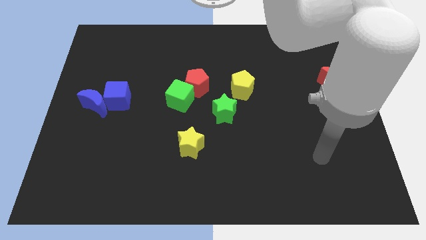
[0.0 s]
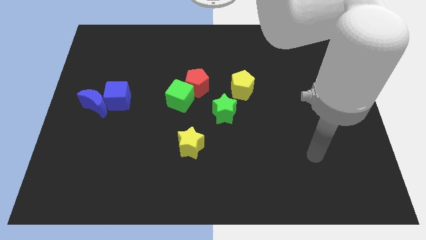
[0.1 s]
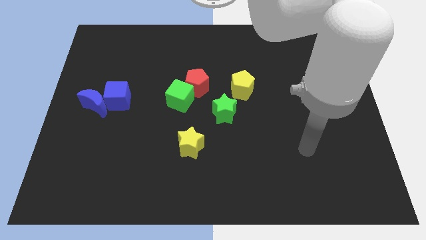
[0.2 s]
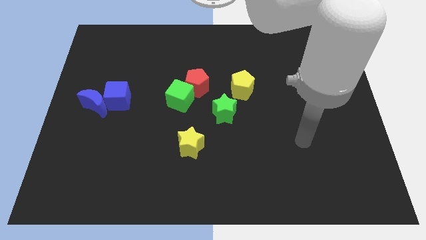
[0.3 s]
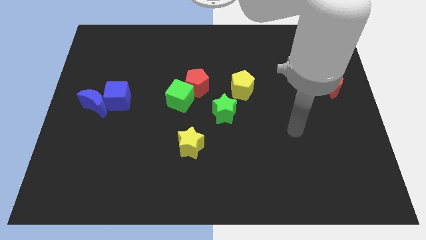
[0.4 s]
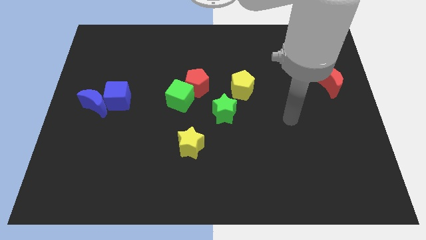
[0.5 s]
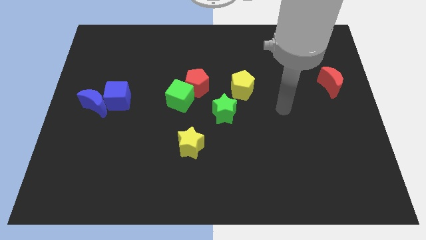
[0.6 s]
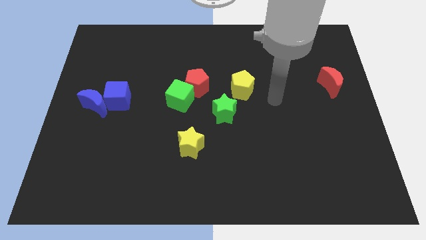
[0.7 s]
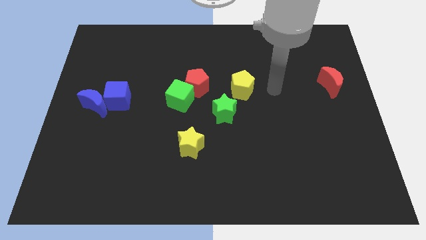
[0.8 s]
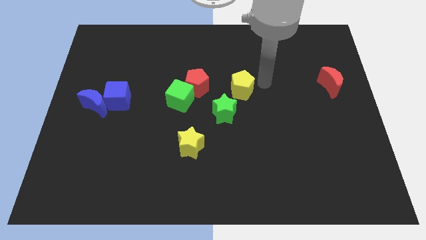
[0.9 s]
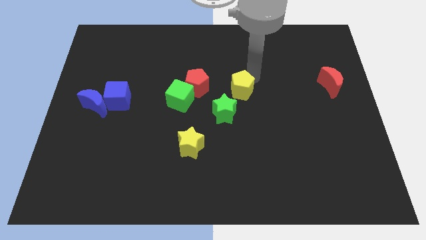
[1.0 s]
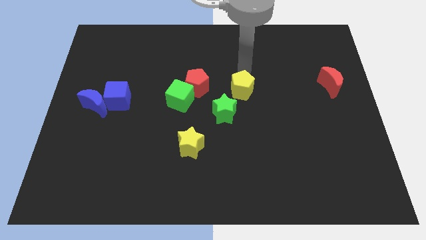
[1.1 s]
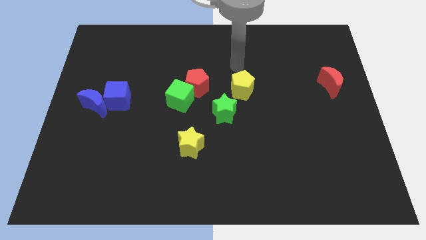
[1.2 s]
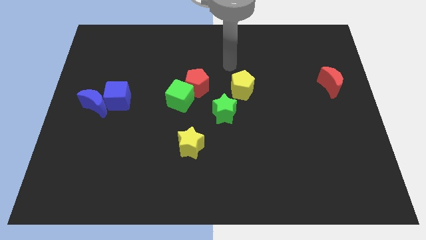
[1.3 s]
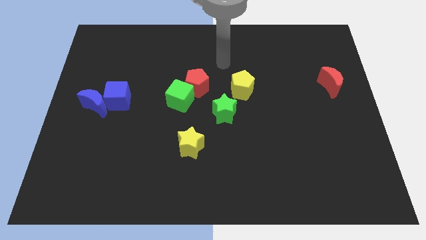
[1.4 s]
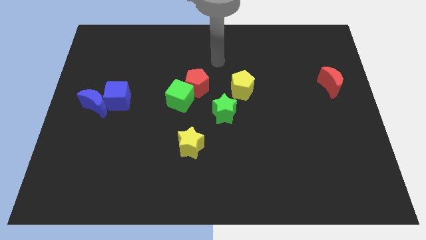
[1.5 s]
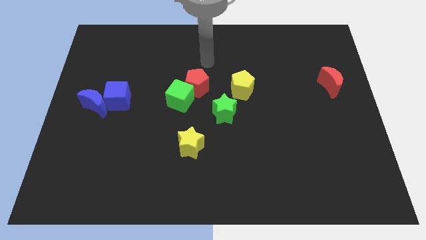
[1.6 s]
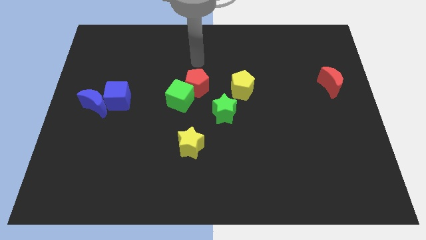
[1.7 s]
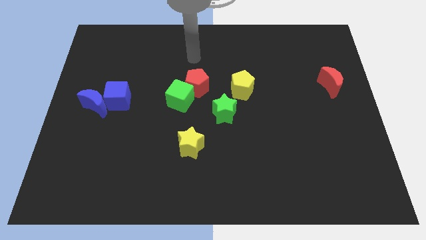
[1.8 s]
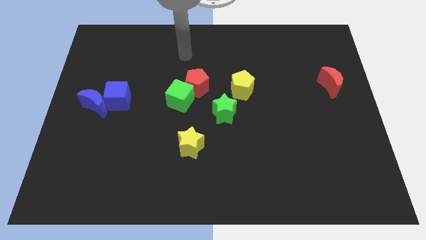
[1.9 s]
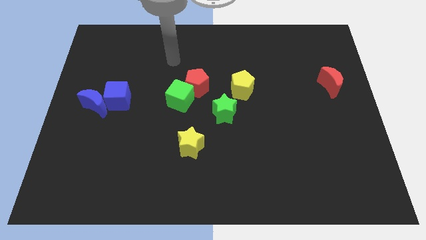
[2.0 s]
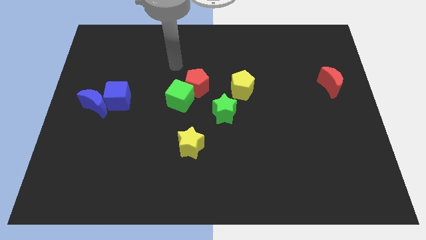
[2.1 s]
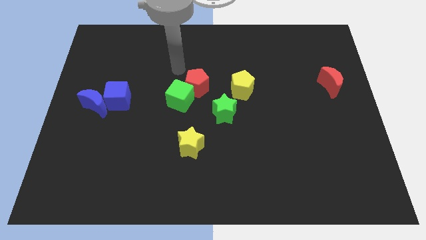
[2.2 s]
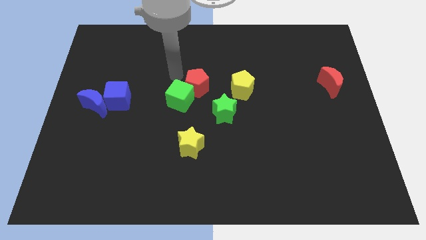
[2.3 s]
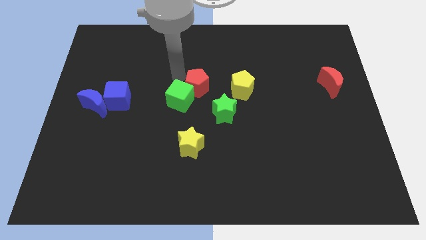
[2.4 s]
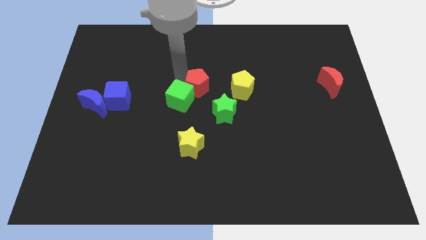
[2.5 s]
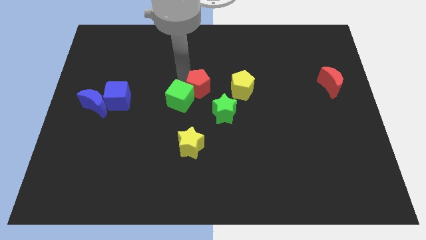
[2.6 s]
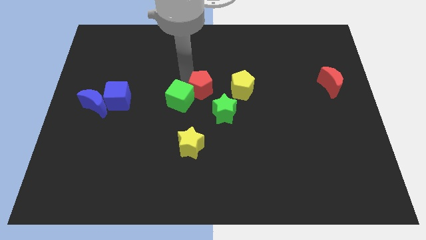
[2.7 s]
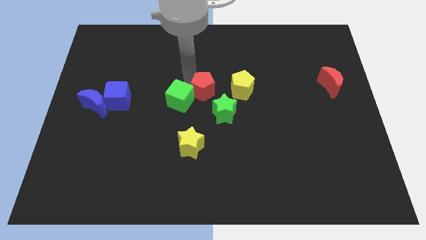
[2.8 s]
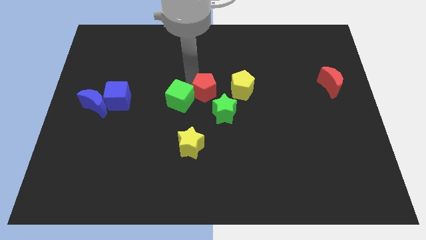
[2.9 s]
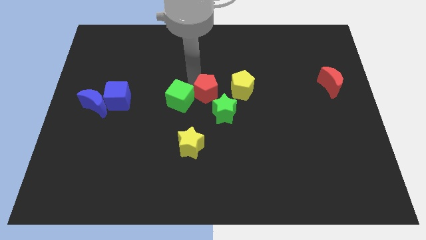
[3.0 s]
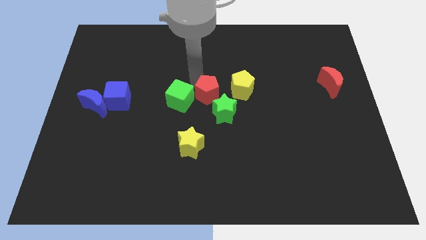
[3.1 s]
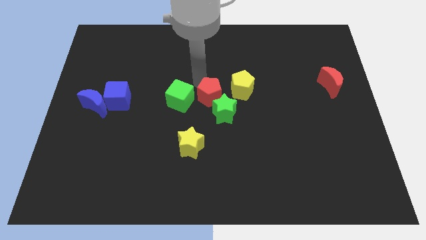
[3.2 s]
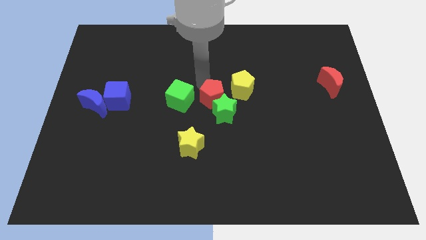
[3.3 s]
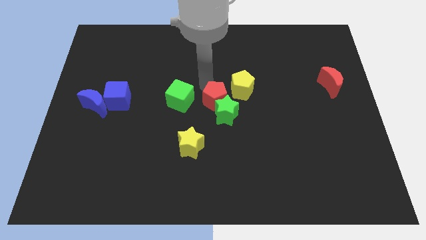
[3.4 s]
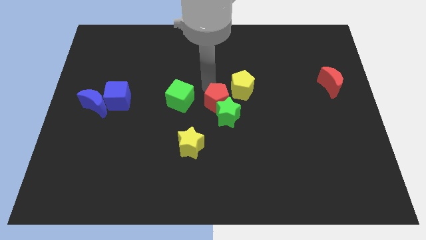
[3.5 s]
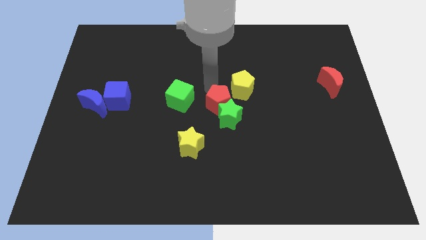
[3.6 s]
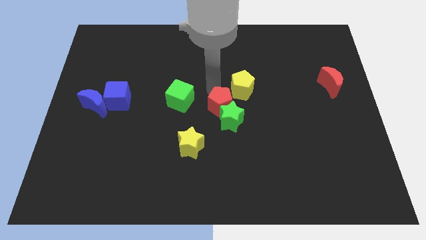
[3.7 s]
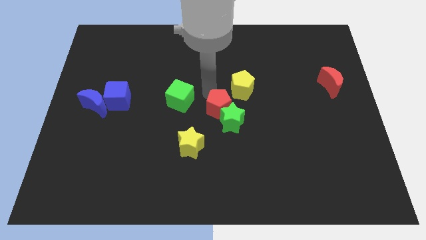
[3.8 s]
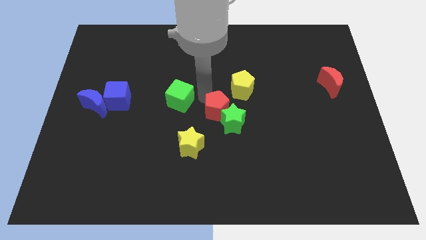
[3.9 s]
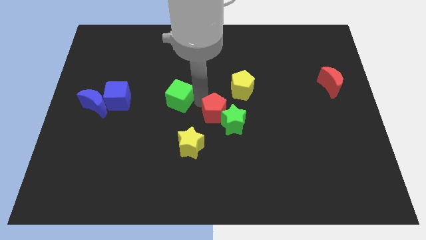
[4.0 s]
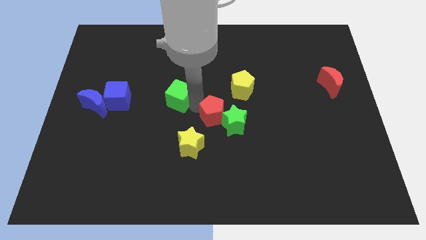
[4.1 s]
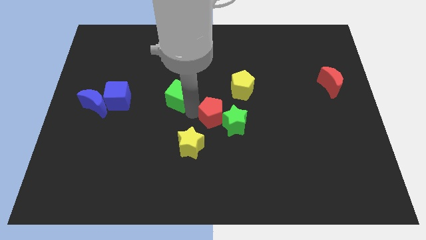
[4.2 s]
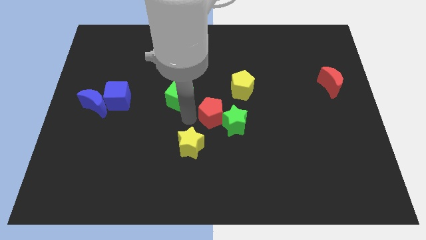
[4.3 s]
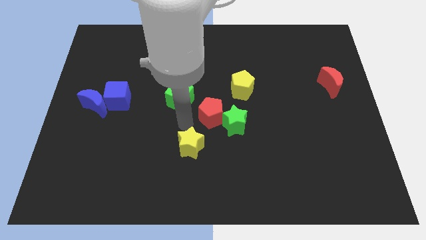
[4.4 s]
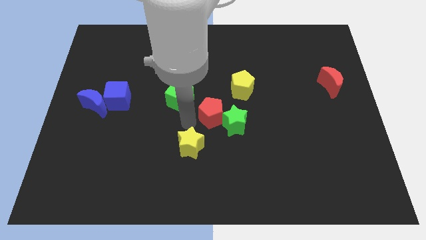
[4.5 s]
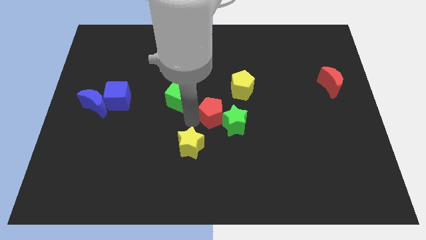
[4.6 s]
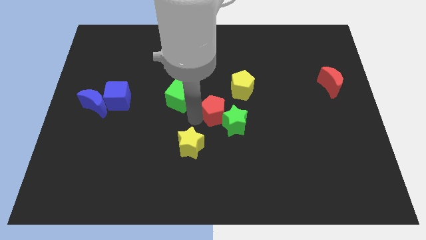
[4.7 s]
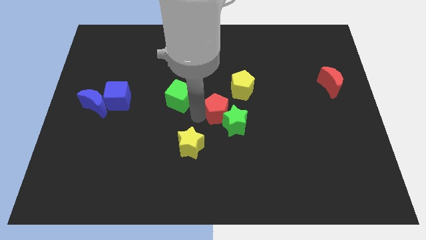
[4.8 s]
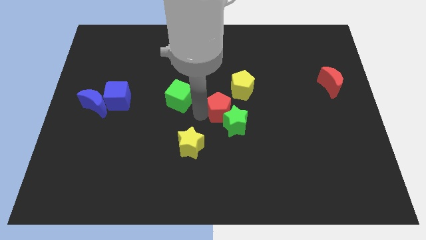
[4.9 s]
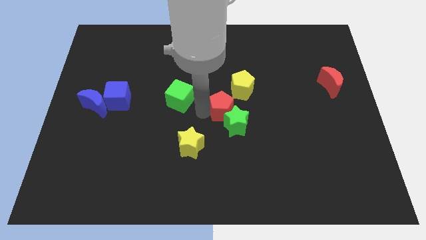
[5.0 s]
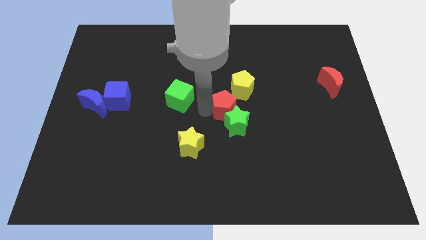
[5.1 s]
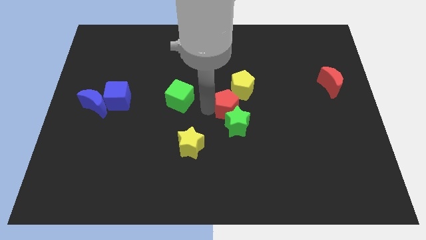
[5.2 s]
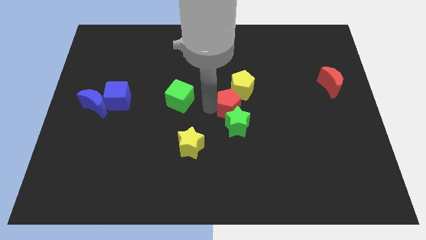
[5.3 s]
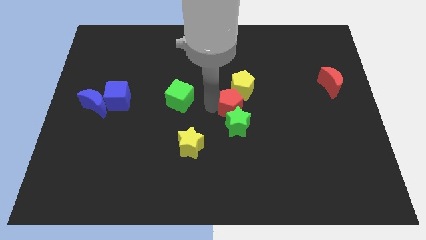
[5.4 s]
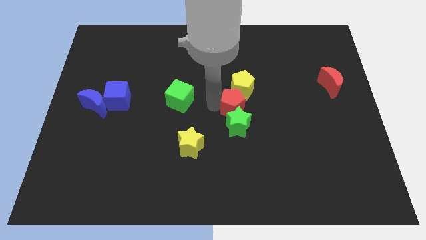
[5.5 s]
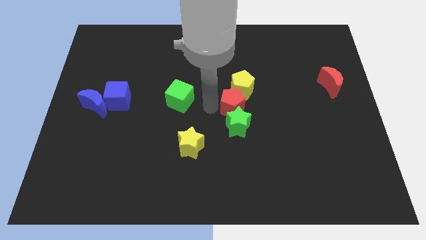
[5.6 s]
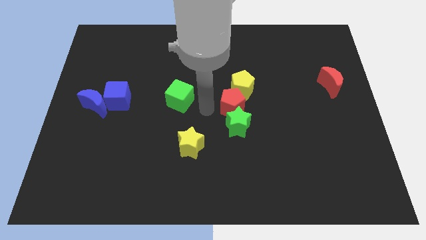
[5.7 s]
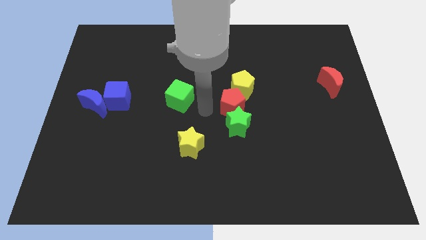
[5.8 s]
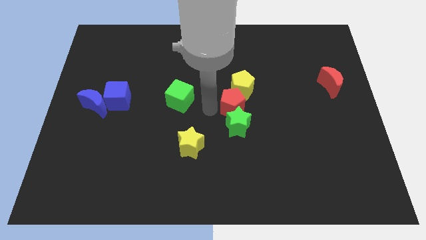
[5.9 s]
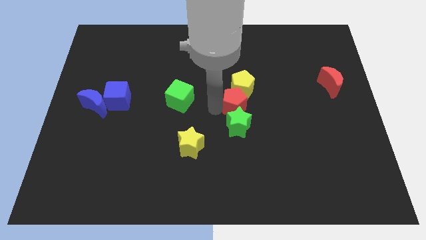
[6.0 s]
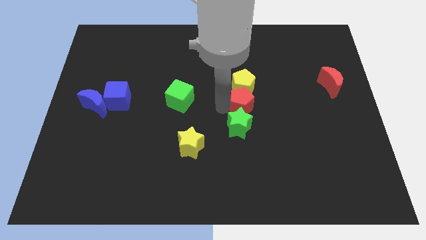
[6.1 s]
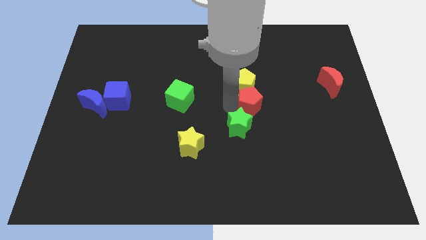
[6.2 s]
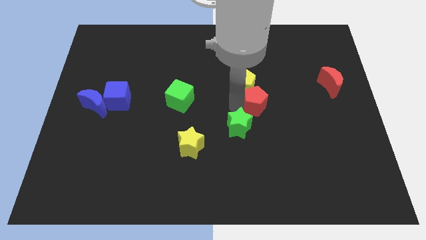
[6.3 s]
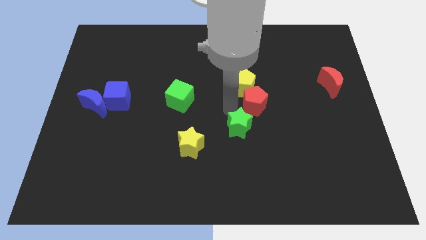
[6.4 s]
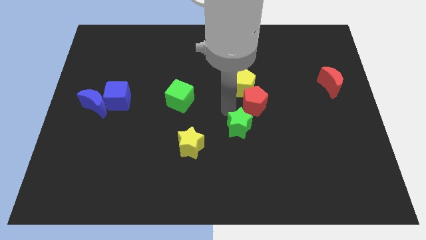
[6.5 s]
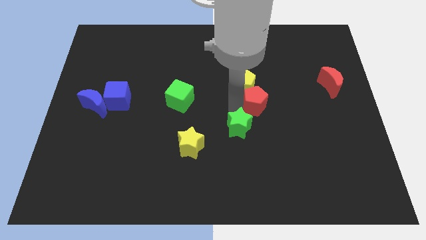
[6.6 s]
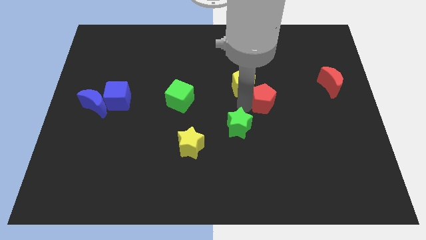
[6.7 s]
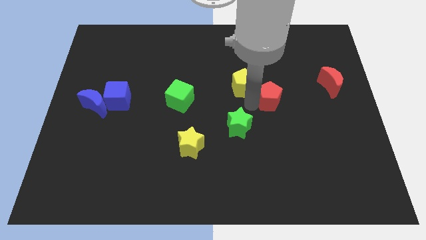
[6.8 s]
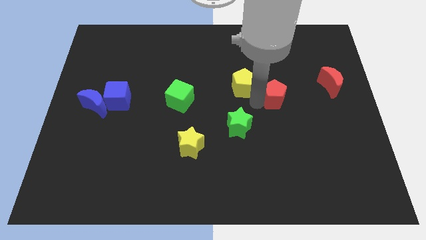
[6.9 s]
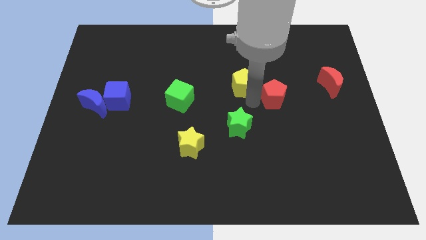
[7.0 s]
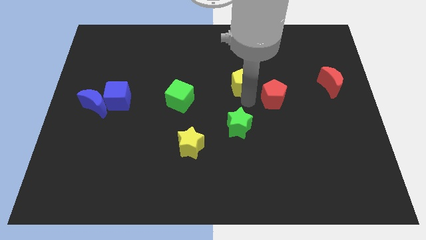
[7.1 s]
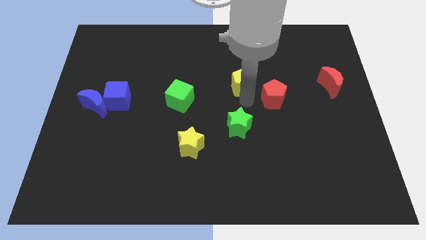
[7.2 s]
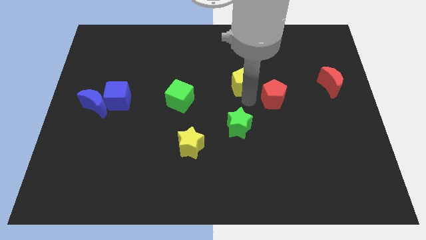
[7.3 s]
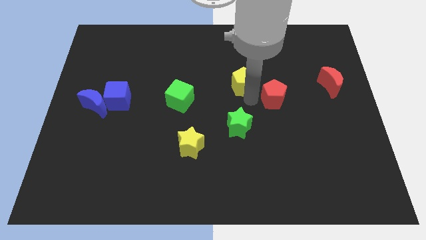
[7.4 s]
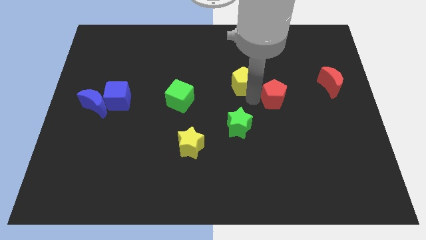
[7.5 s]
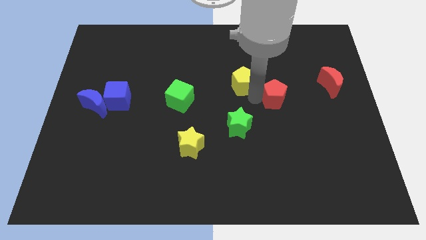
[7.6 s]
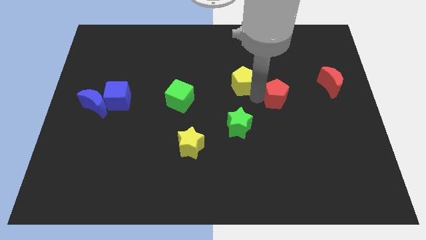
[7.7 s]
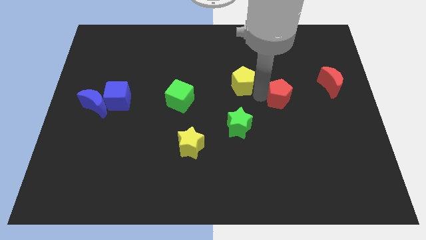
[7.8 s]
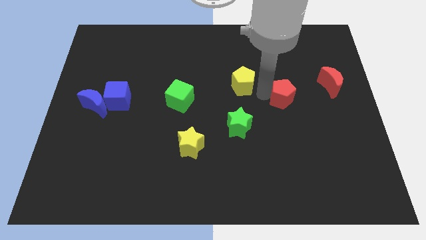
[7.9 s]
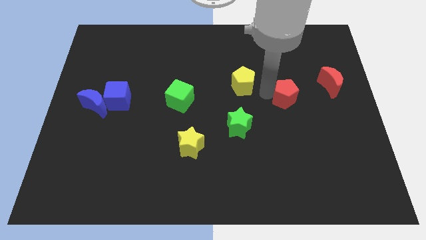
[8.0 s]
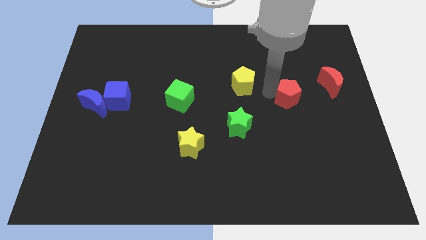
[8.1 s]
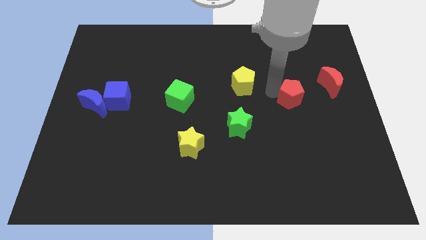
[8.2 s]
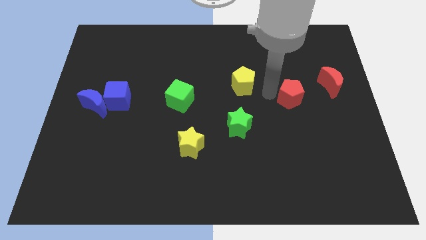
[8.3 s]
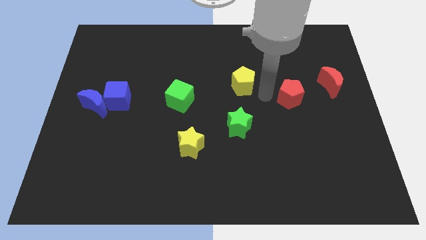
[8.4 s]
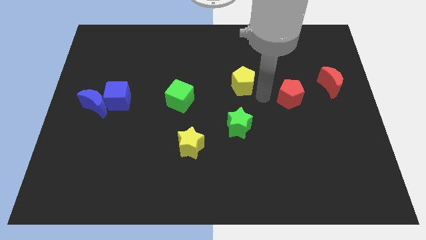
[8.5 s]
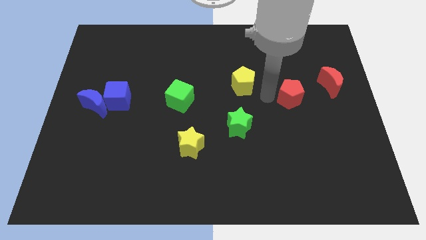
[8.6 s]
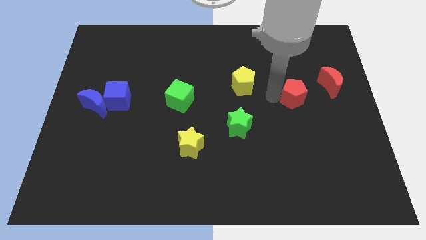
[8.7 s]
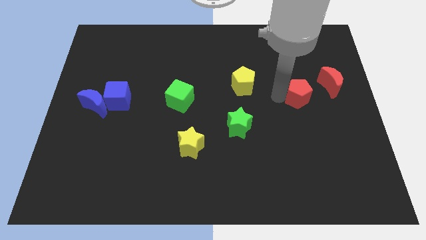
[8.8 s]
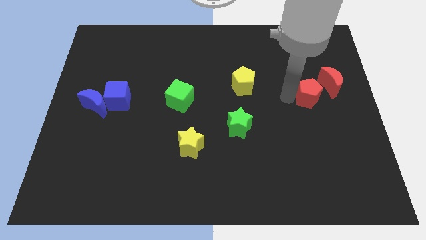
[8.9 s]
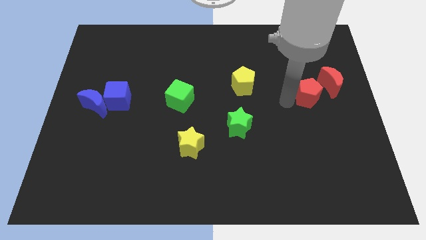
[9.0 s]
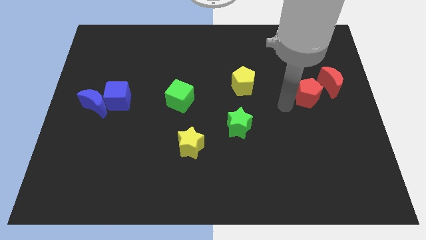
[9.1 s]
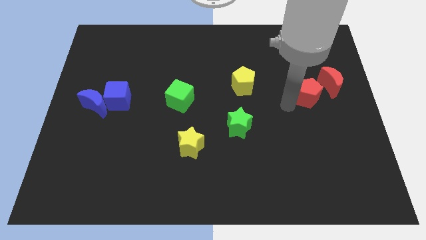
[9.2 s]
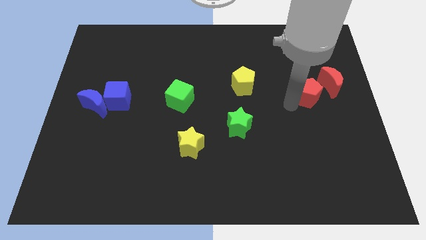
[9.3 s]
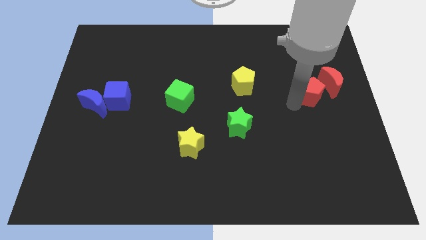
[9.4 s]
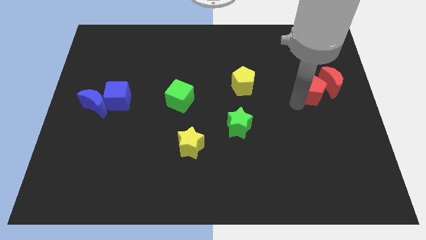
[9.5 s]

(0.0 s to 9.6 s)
put the red pentagon next to the red moon
